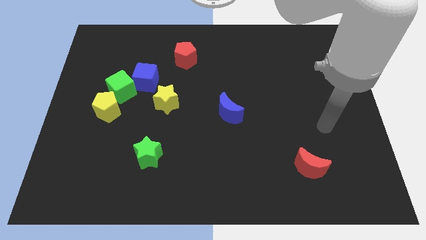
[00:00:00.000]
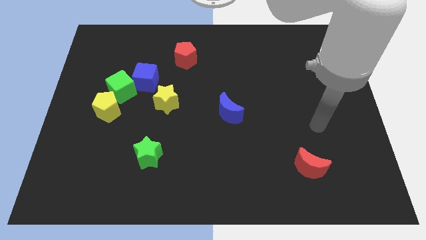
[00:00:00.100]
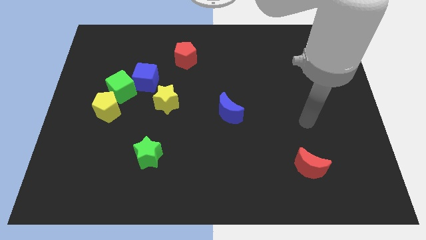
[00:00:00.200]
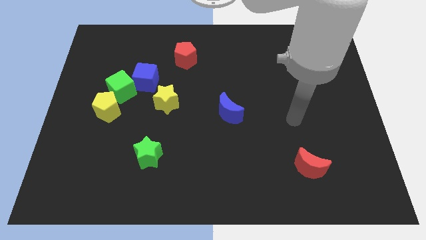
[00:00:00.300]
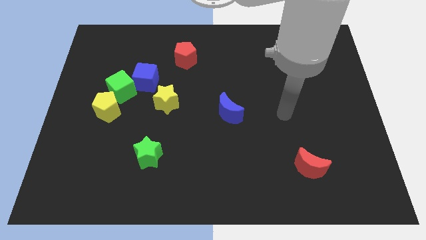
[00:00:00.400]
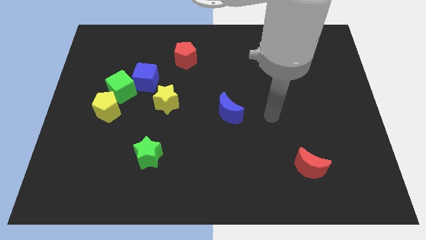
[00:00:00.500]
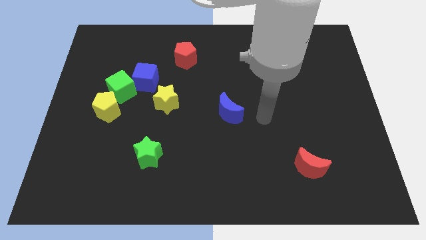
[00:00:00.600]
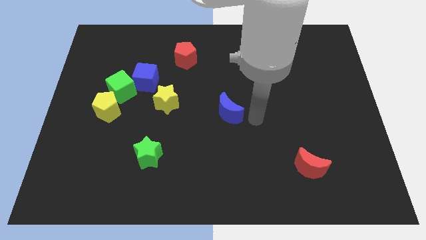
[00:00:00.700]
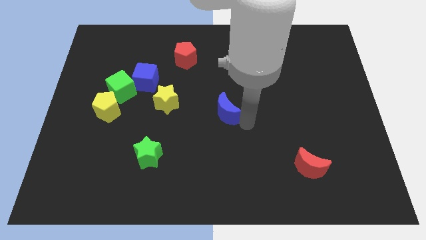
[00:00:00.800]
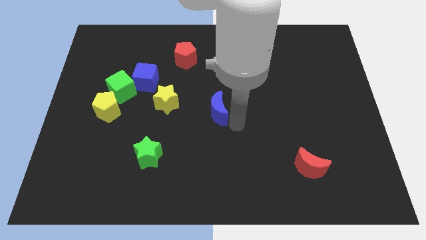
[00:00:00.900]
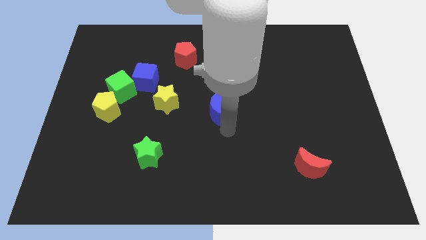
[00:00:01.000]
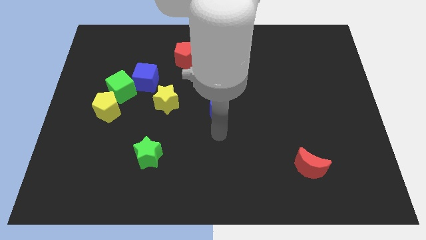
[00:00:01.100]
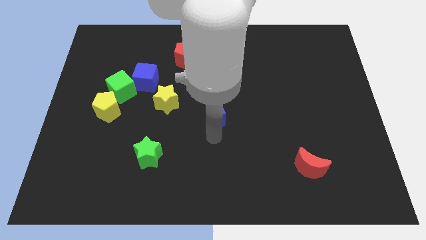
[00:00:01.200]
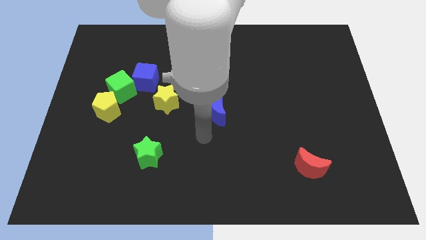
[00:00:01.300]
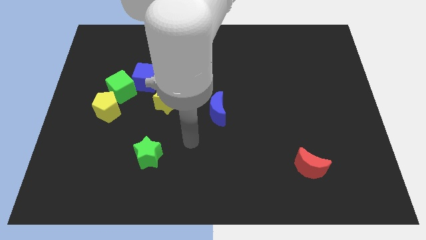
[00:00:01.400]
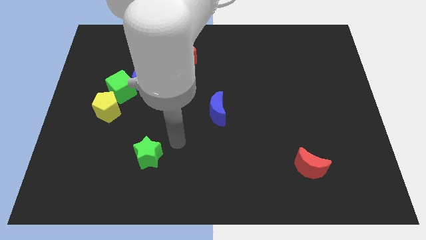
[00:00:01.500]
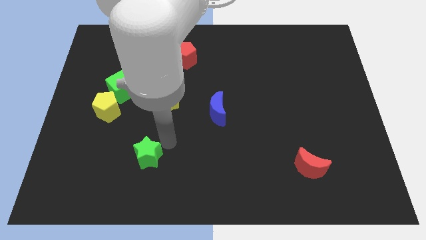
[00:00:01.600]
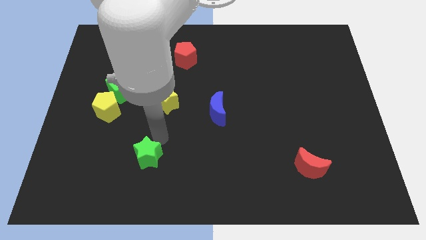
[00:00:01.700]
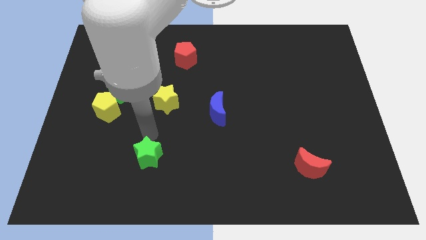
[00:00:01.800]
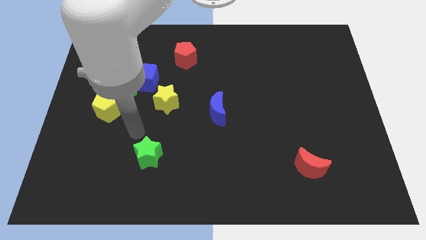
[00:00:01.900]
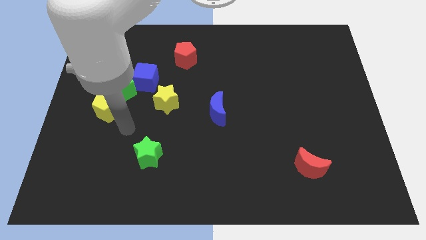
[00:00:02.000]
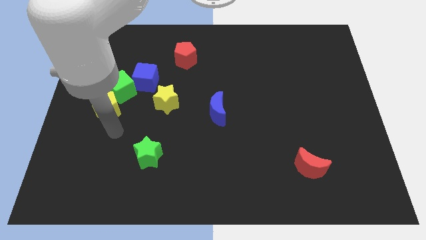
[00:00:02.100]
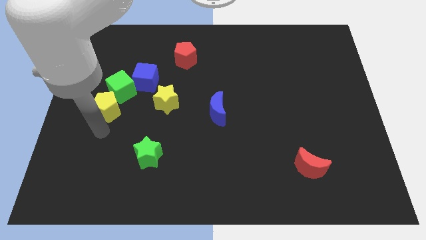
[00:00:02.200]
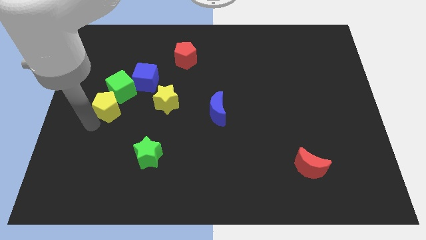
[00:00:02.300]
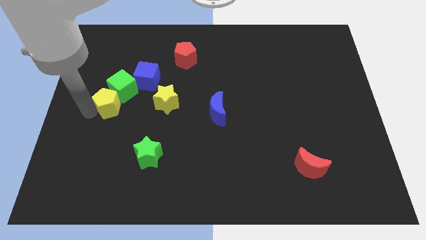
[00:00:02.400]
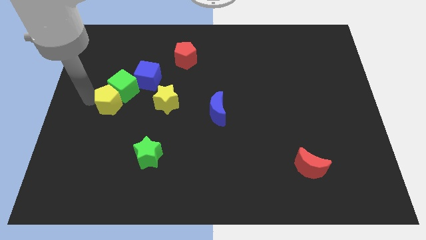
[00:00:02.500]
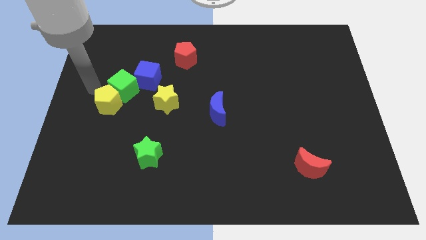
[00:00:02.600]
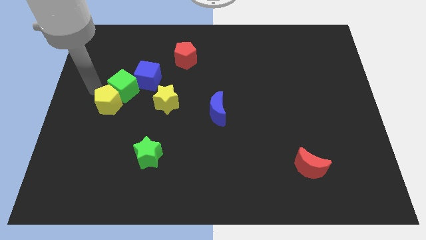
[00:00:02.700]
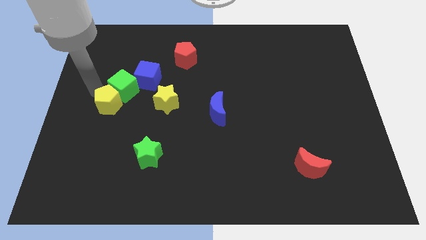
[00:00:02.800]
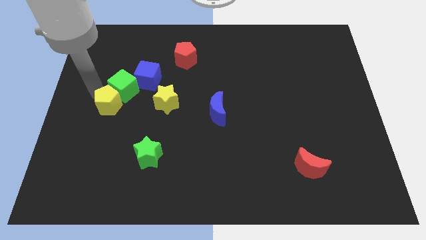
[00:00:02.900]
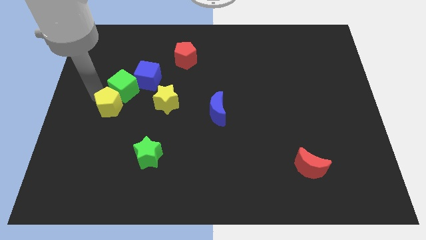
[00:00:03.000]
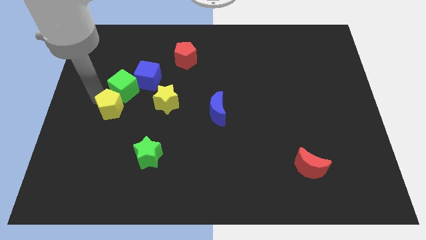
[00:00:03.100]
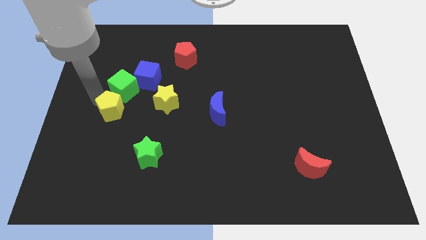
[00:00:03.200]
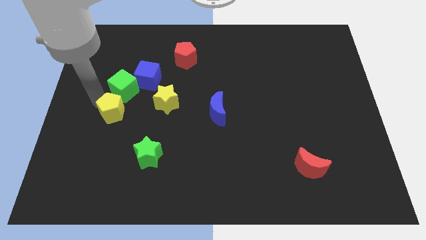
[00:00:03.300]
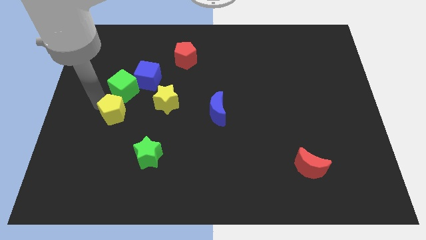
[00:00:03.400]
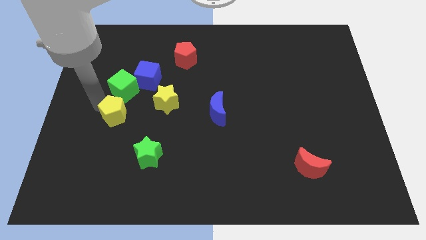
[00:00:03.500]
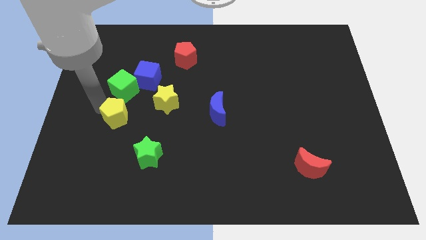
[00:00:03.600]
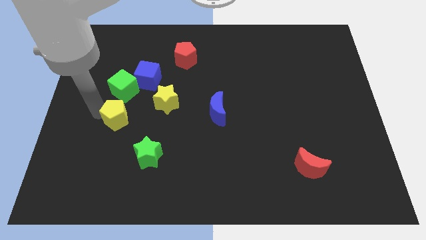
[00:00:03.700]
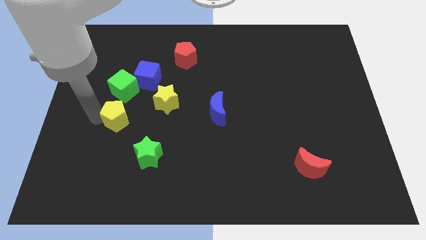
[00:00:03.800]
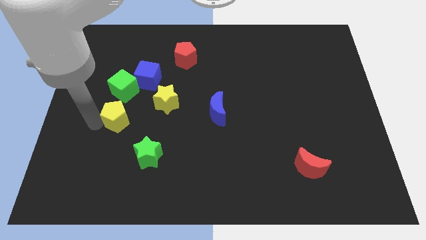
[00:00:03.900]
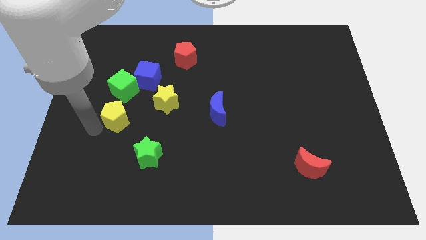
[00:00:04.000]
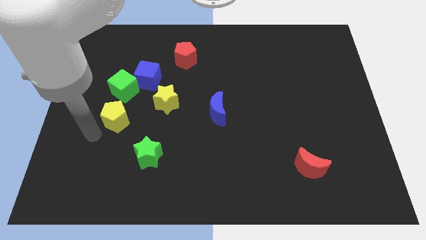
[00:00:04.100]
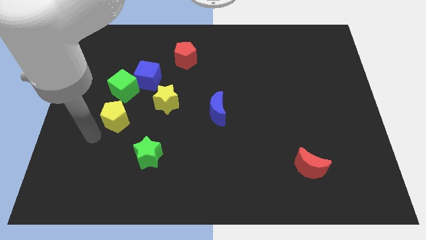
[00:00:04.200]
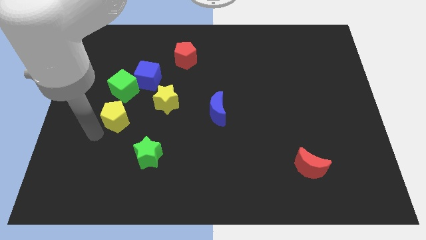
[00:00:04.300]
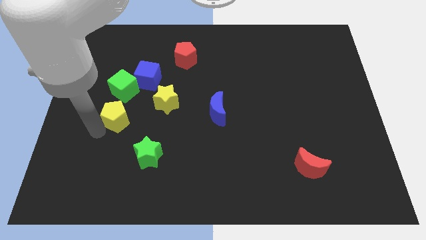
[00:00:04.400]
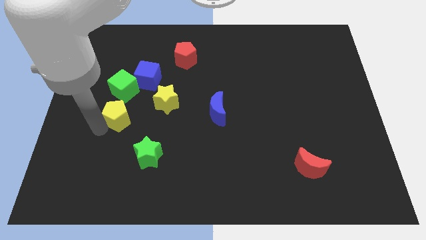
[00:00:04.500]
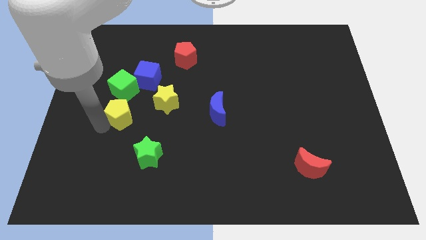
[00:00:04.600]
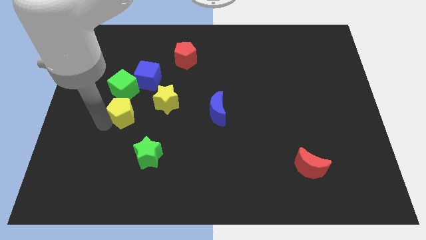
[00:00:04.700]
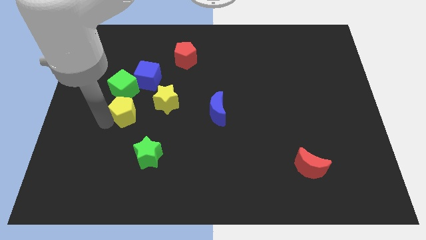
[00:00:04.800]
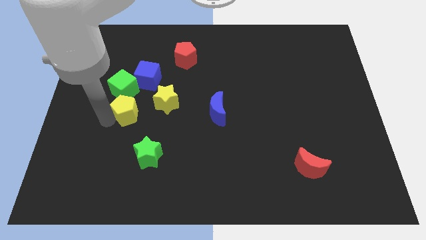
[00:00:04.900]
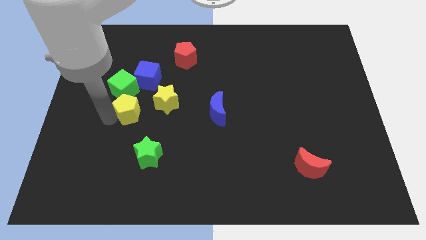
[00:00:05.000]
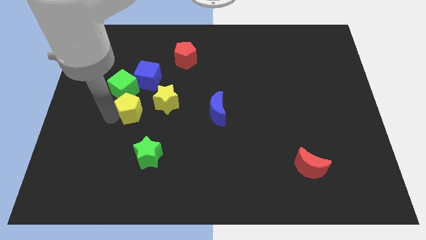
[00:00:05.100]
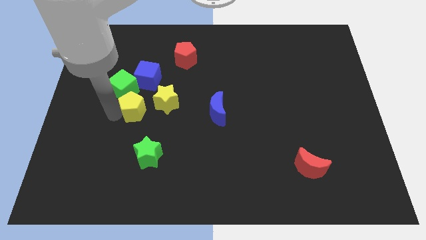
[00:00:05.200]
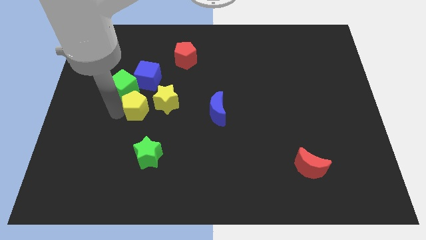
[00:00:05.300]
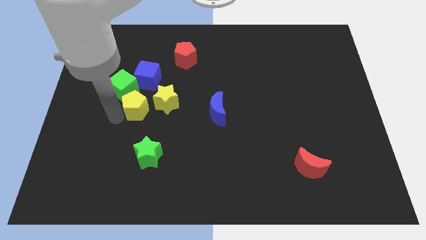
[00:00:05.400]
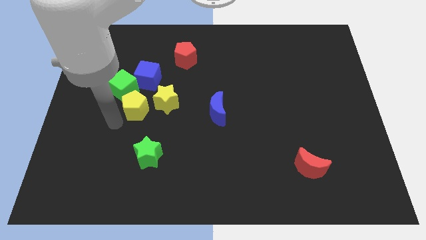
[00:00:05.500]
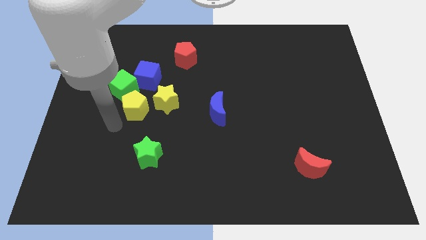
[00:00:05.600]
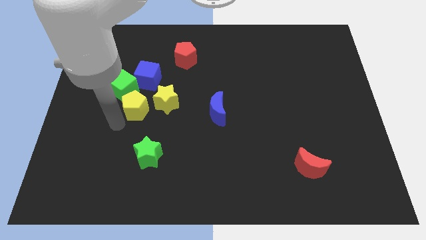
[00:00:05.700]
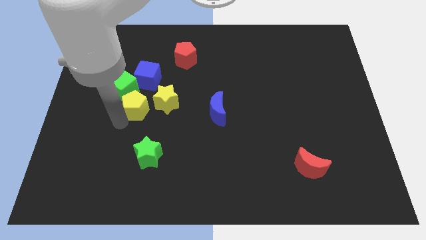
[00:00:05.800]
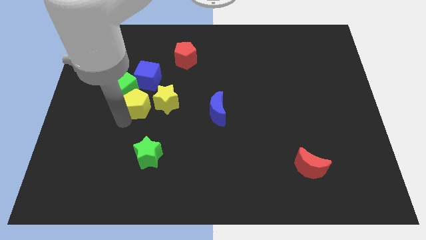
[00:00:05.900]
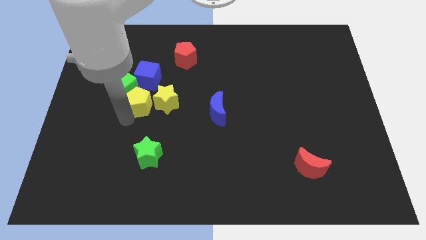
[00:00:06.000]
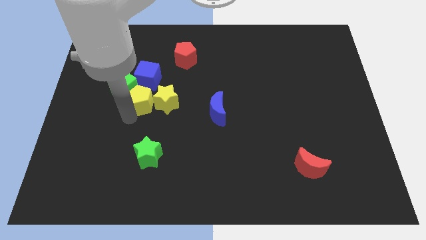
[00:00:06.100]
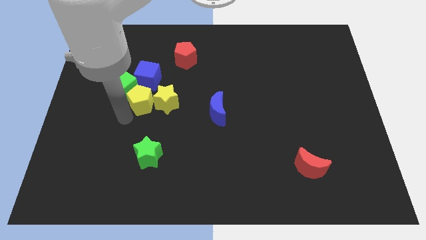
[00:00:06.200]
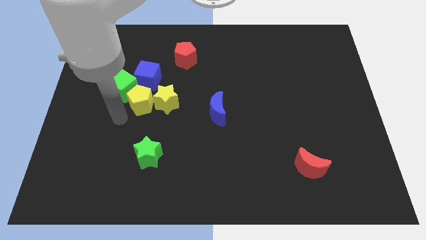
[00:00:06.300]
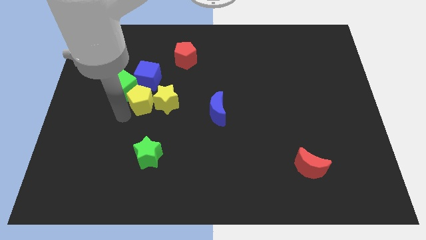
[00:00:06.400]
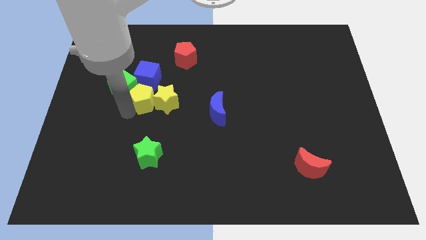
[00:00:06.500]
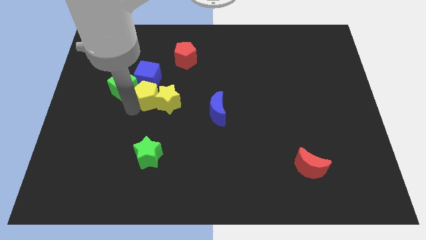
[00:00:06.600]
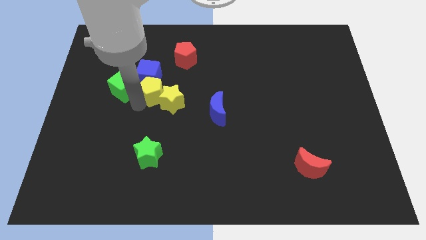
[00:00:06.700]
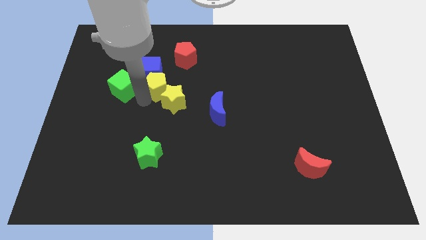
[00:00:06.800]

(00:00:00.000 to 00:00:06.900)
put the yellow pentagon to the bottom left of the red pentagon

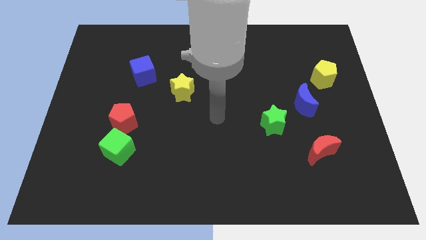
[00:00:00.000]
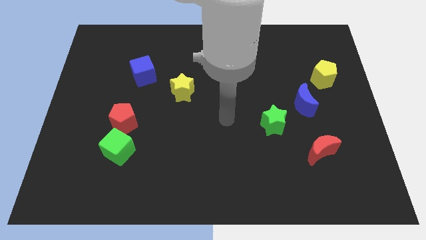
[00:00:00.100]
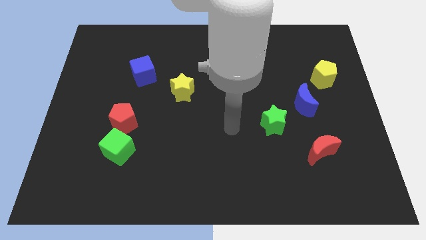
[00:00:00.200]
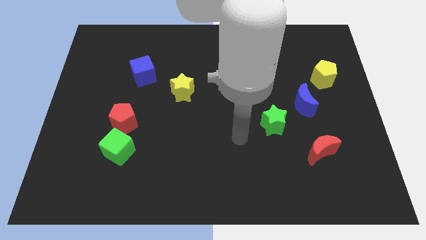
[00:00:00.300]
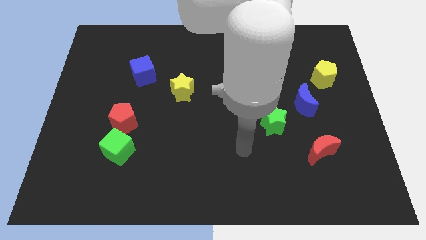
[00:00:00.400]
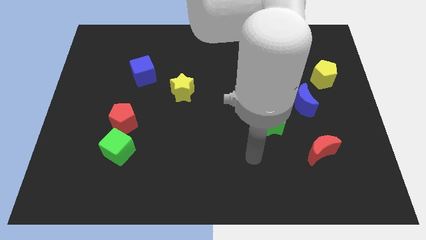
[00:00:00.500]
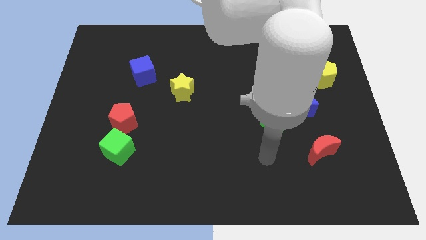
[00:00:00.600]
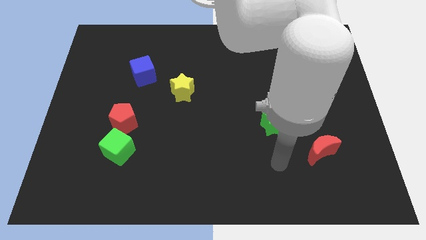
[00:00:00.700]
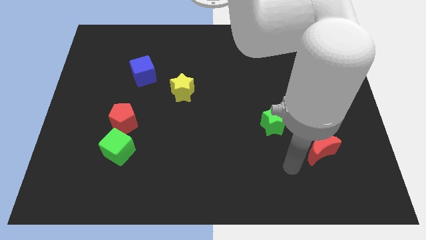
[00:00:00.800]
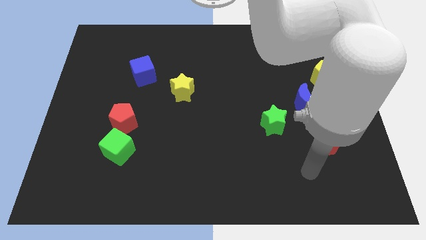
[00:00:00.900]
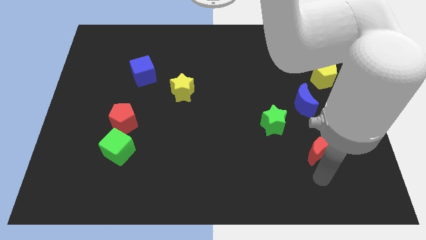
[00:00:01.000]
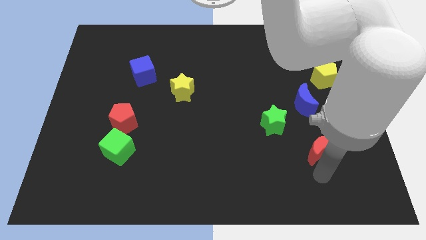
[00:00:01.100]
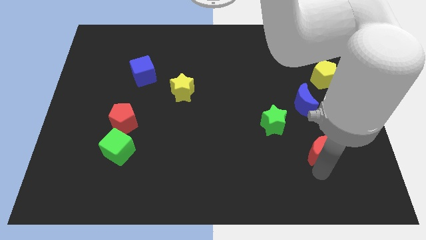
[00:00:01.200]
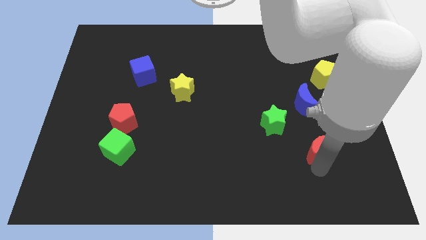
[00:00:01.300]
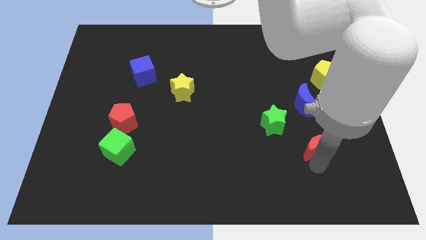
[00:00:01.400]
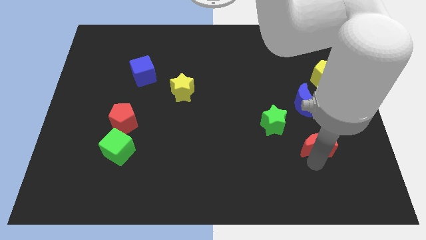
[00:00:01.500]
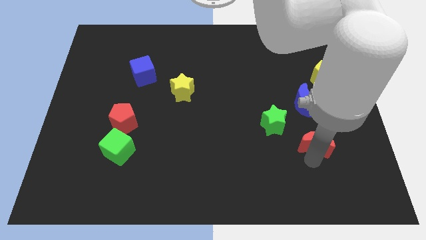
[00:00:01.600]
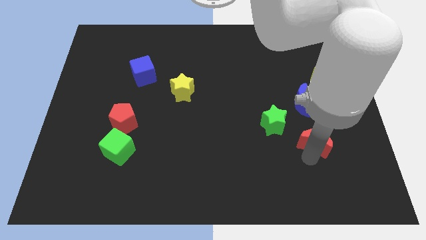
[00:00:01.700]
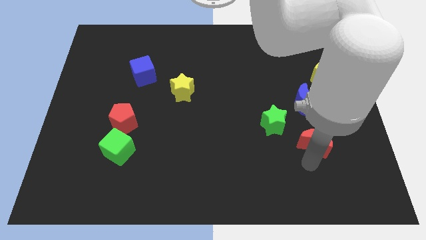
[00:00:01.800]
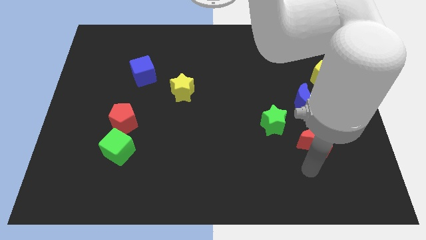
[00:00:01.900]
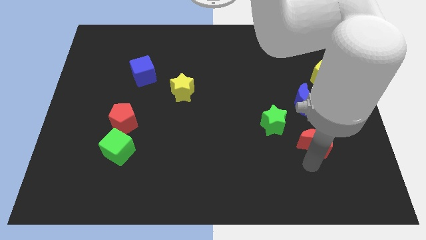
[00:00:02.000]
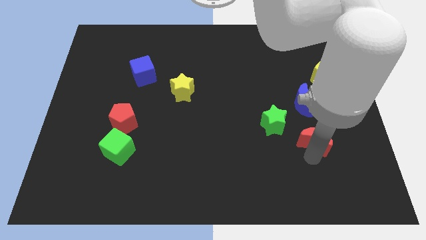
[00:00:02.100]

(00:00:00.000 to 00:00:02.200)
slide the red moon to the right of the green star
